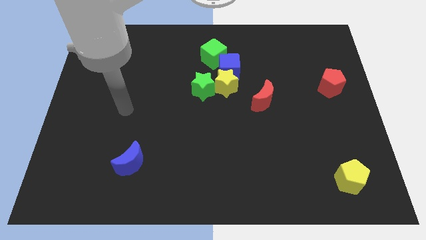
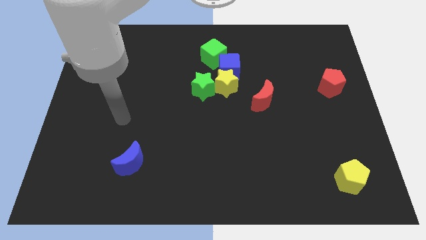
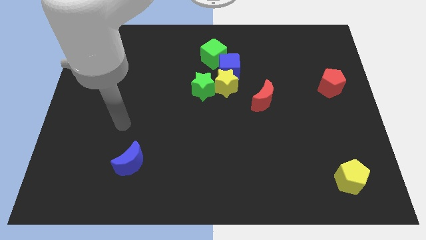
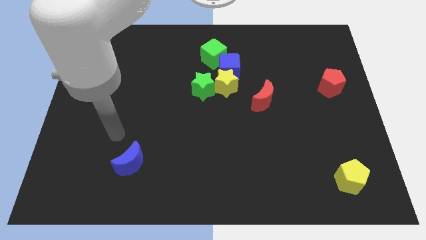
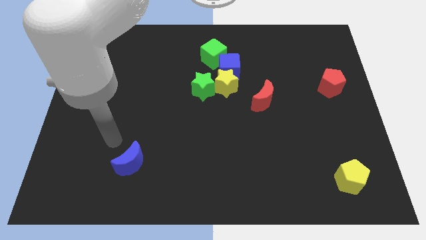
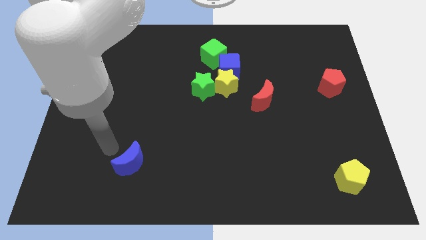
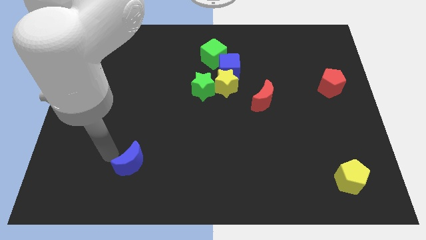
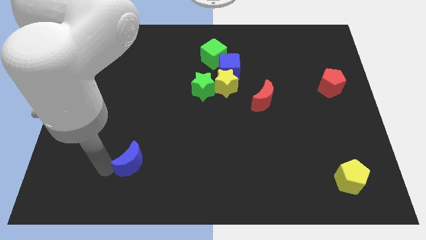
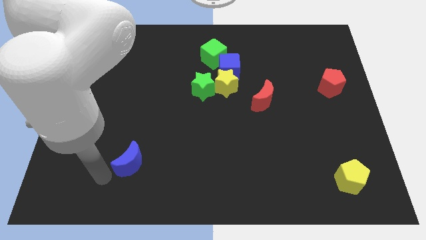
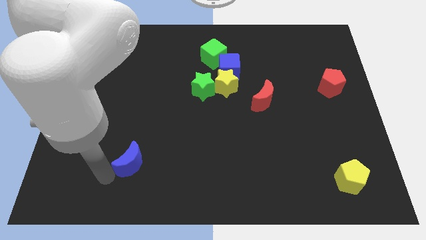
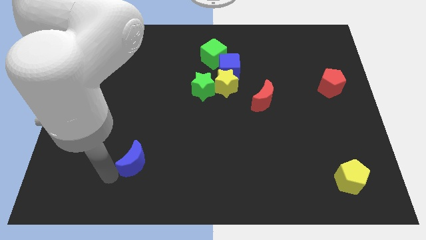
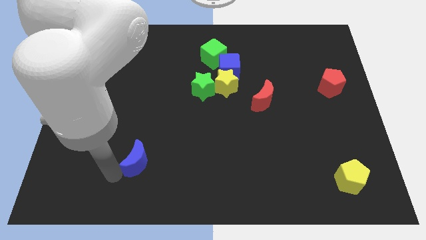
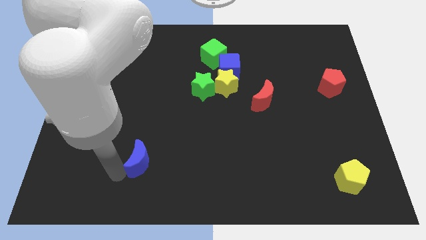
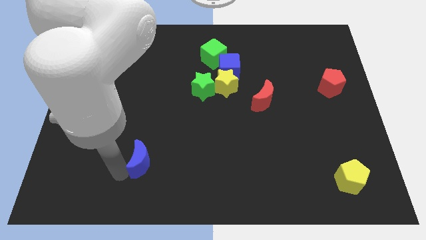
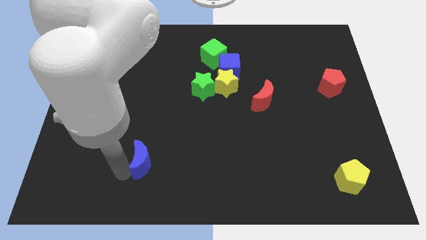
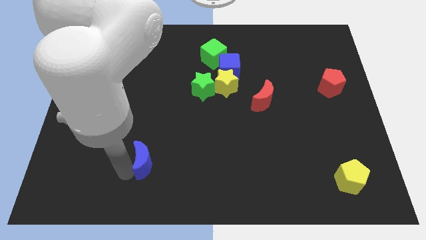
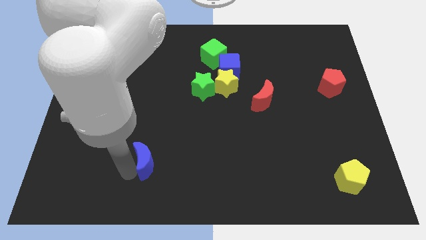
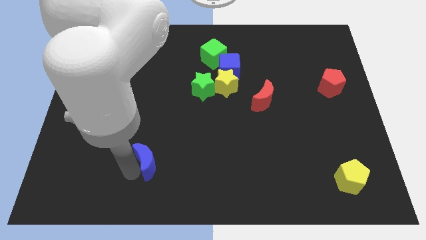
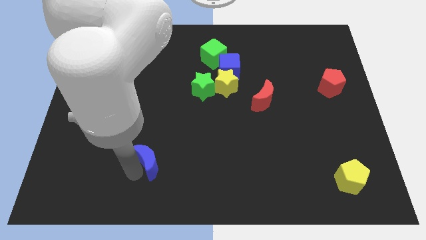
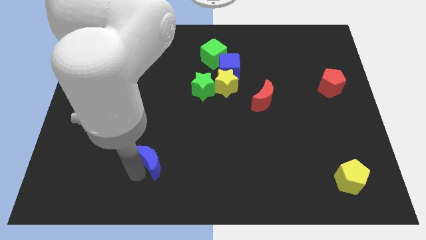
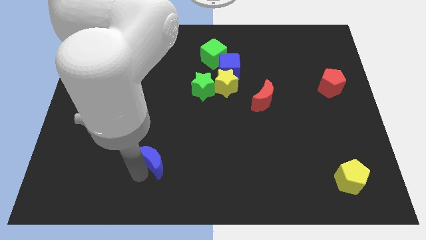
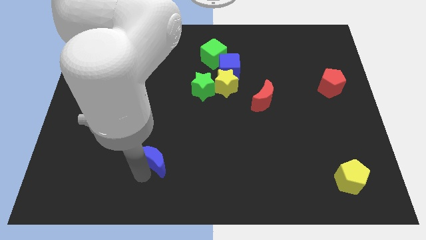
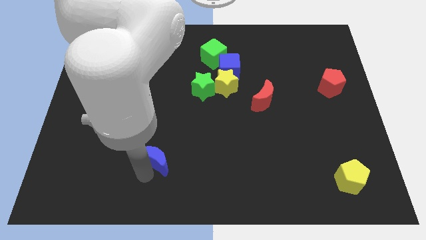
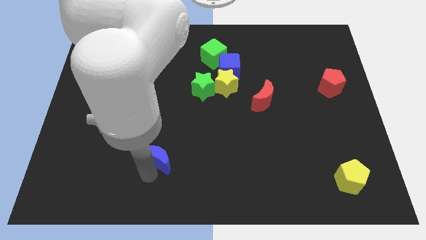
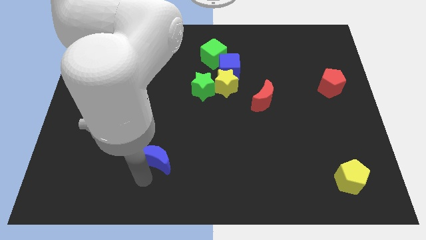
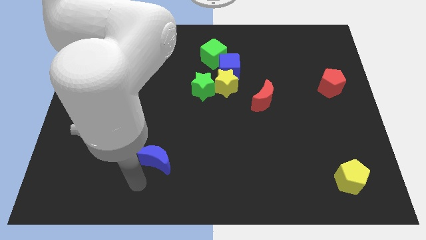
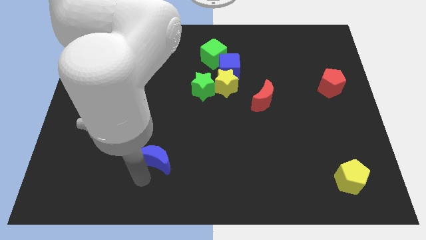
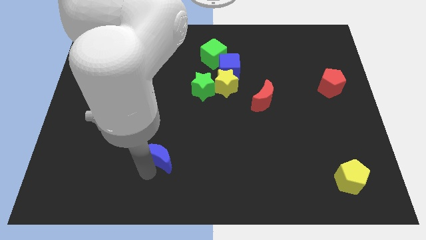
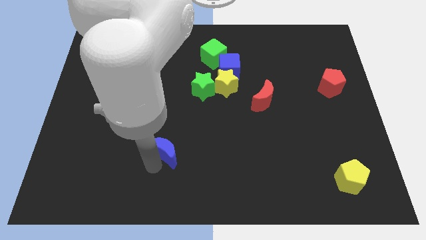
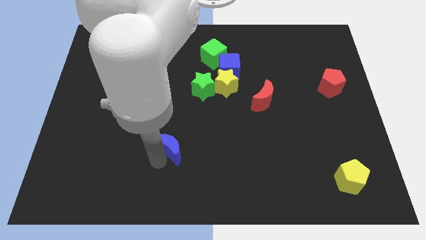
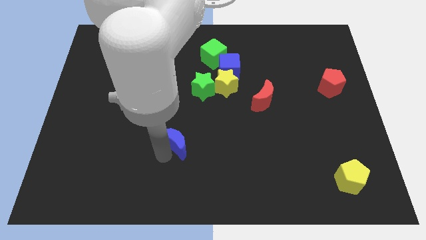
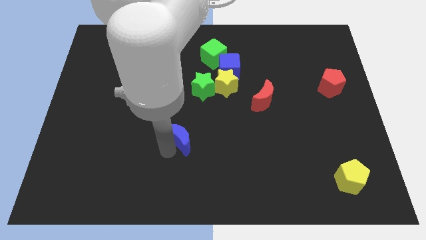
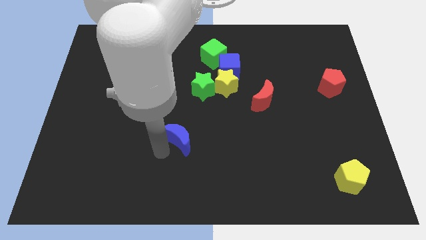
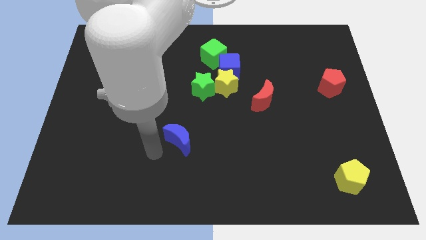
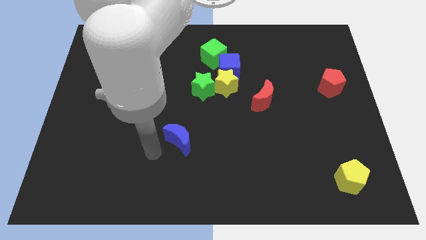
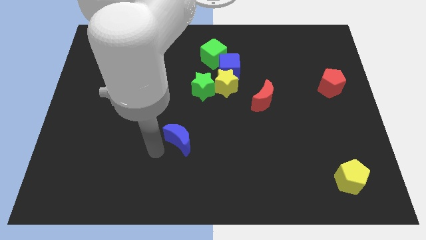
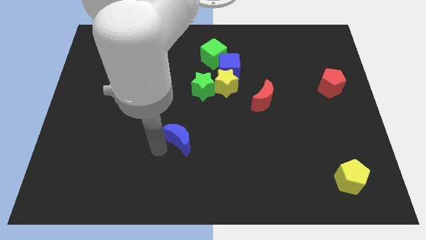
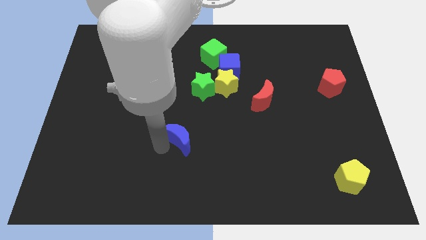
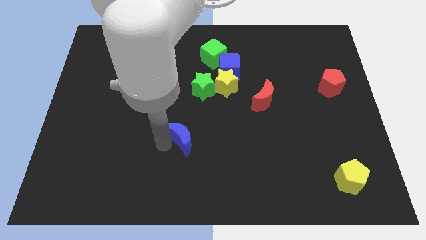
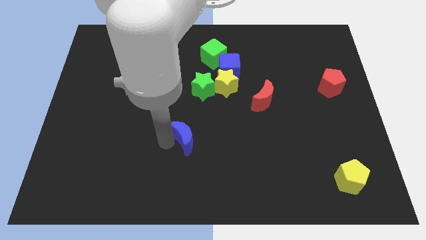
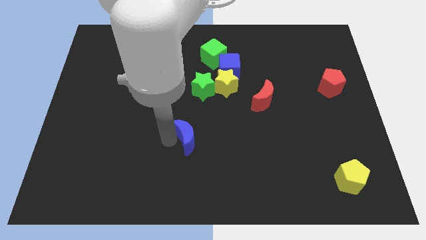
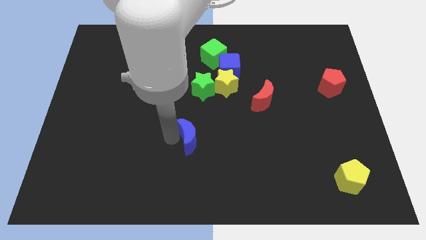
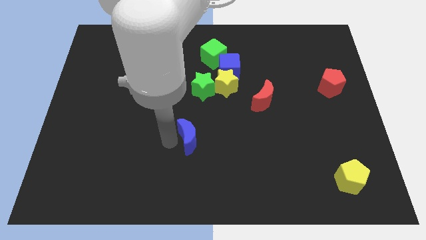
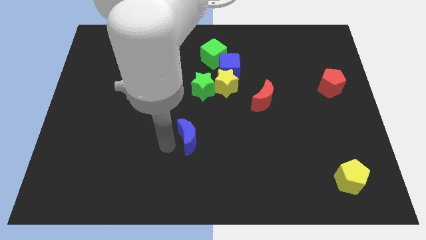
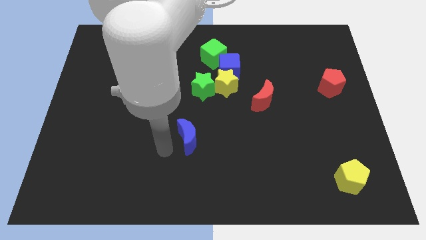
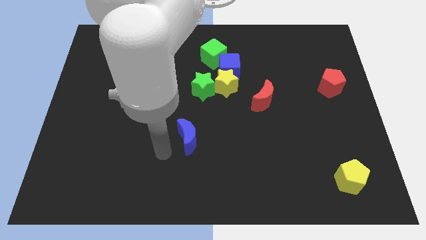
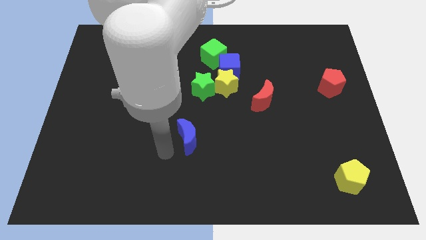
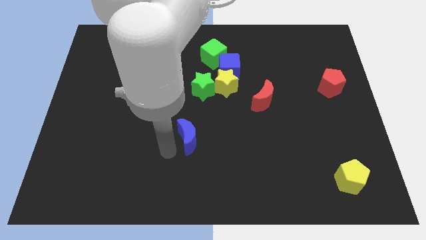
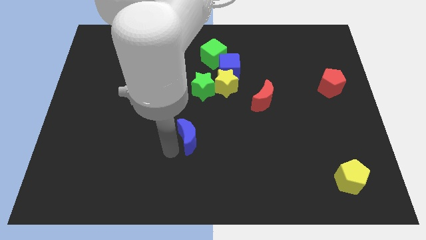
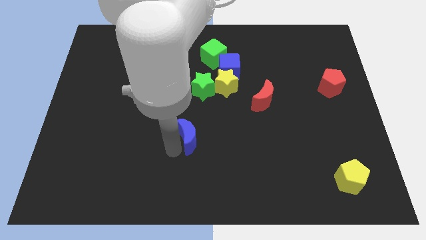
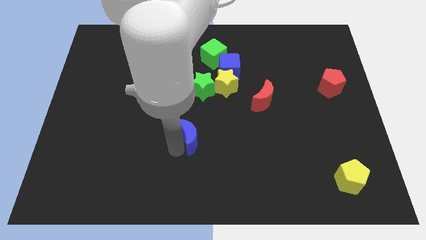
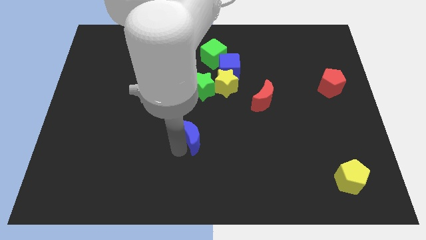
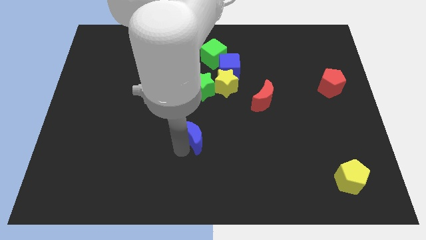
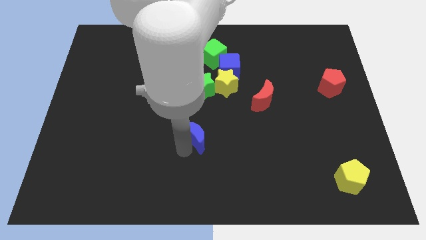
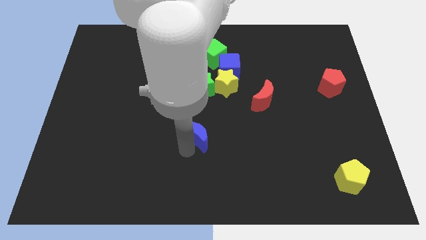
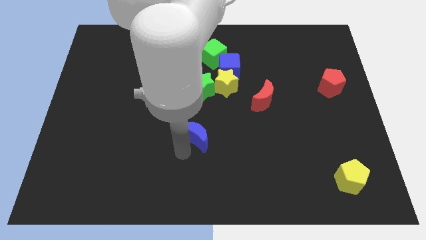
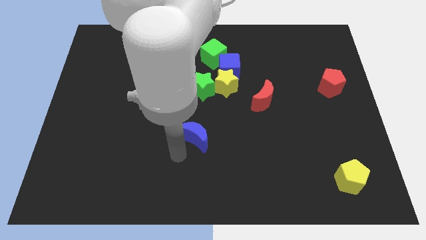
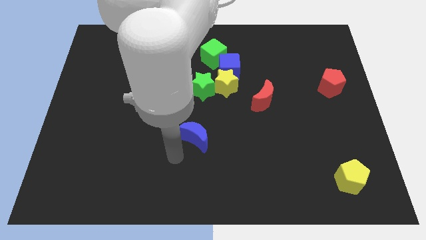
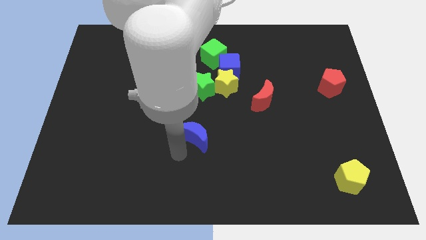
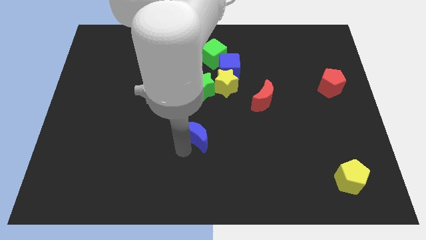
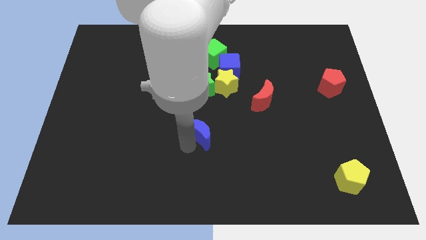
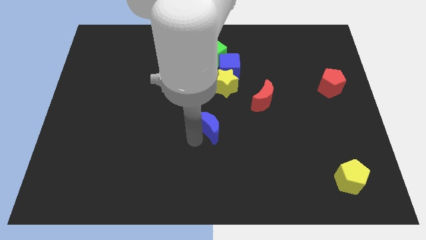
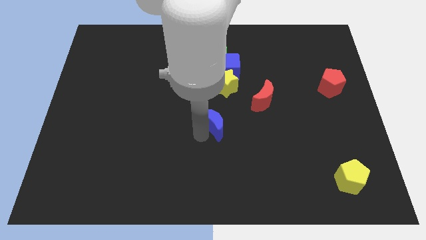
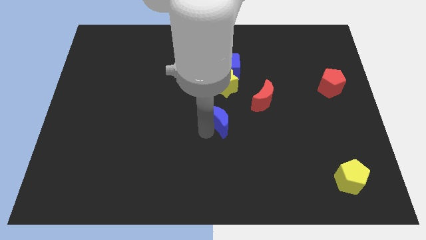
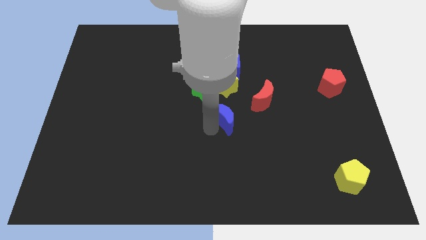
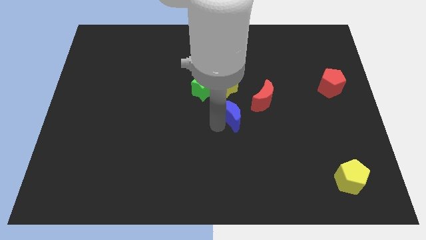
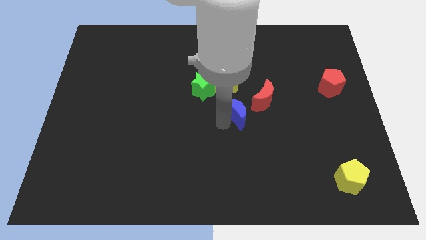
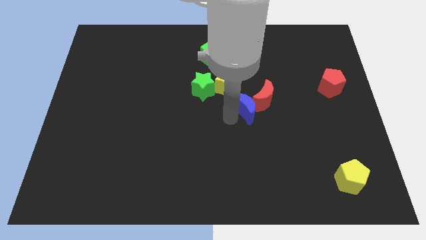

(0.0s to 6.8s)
push the blue moon close to the red moon

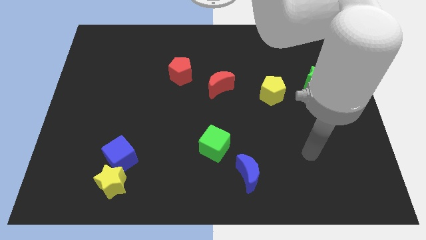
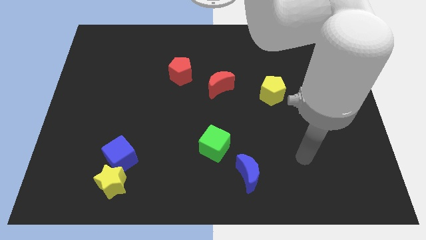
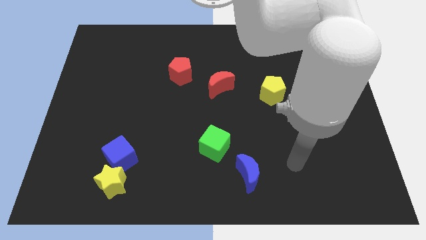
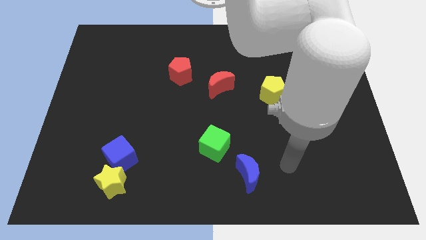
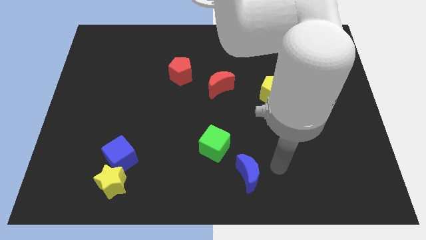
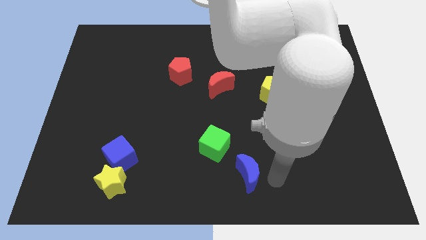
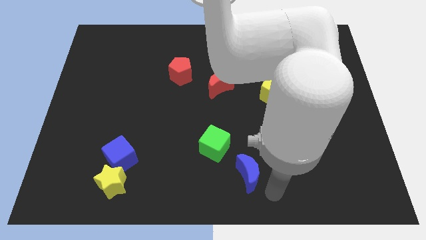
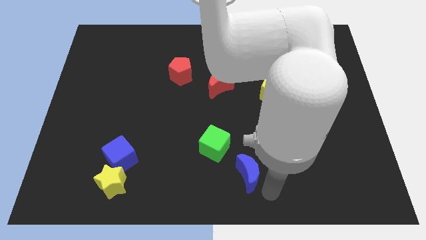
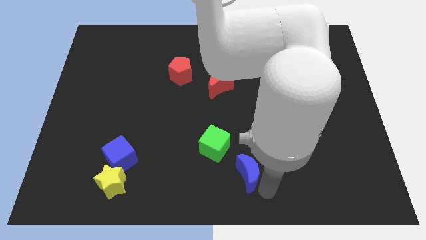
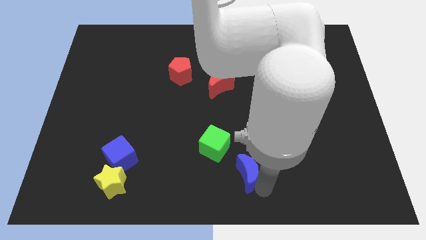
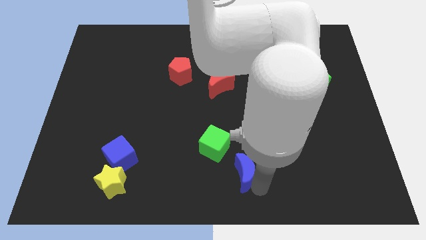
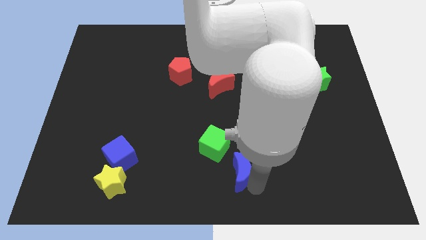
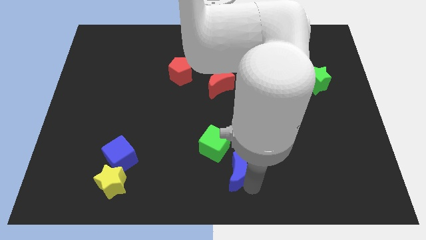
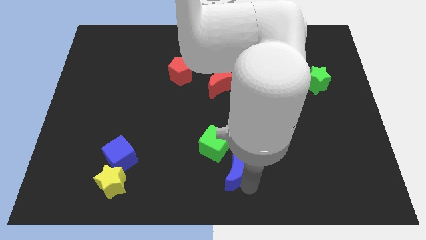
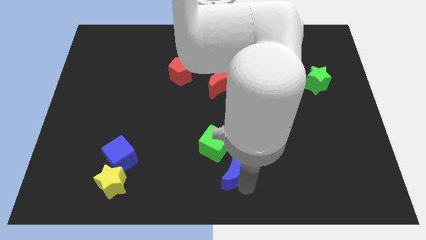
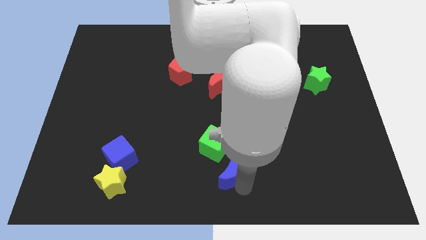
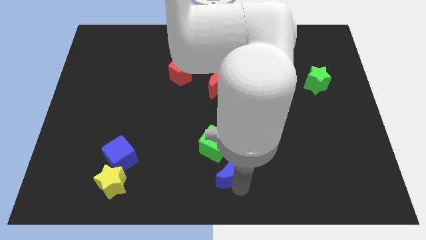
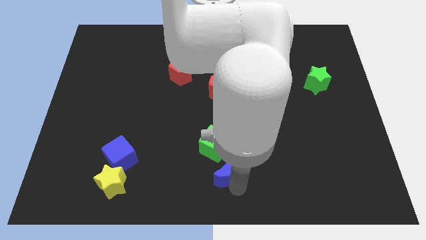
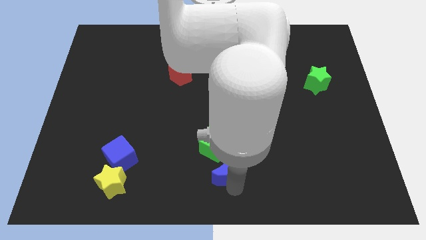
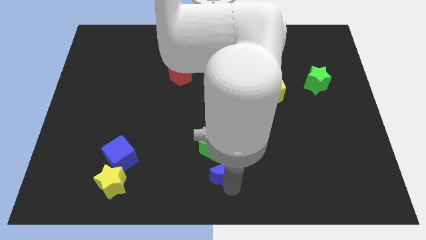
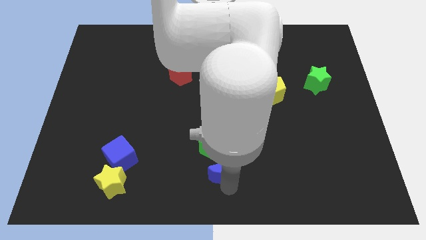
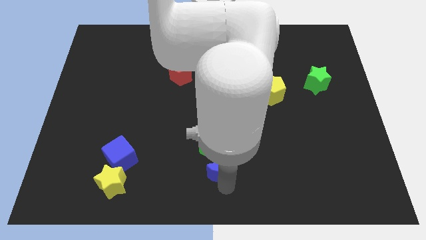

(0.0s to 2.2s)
slide the blue moon close to the green cube
